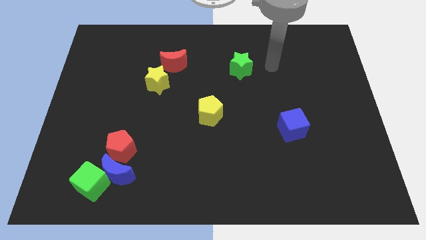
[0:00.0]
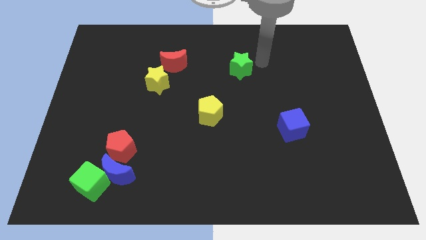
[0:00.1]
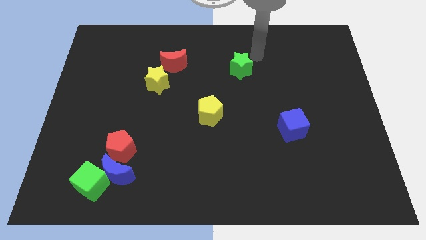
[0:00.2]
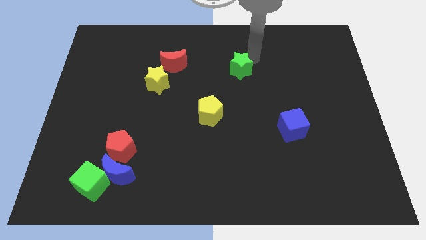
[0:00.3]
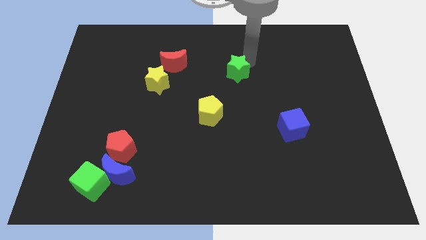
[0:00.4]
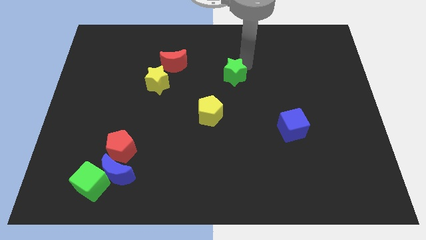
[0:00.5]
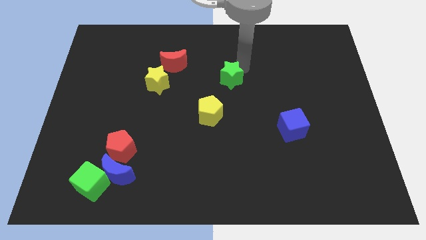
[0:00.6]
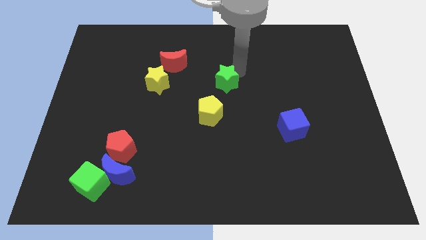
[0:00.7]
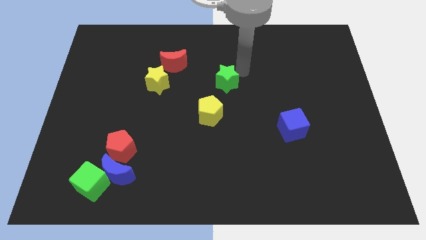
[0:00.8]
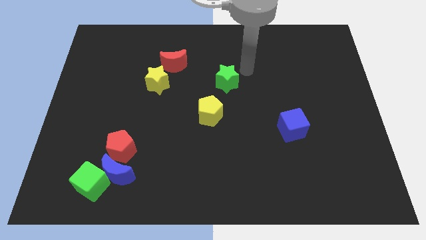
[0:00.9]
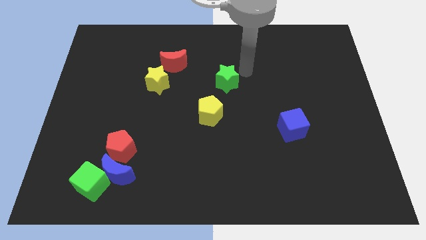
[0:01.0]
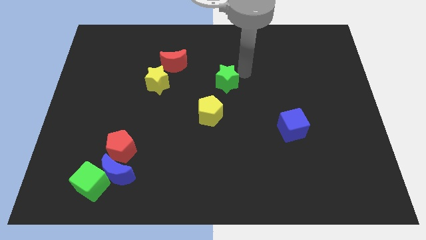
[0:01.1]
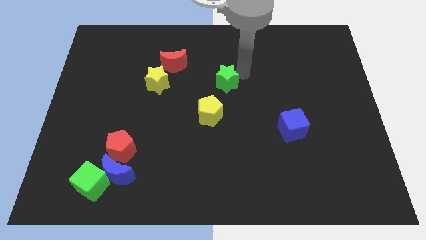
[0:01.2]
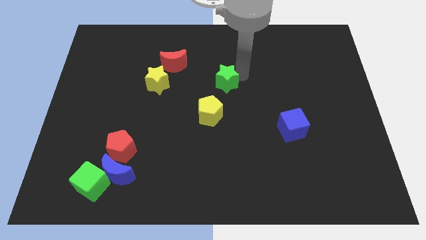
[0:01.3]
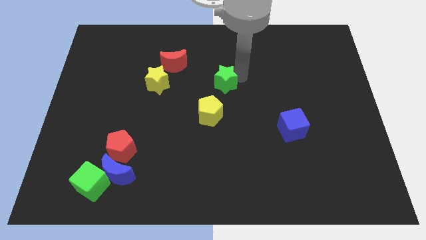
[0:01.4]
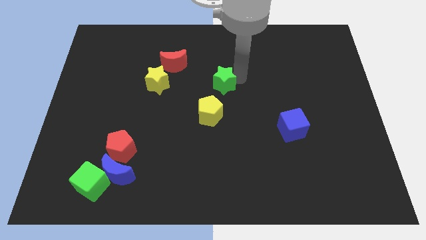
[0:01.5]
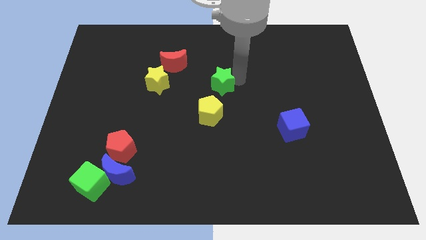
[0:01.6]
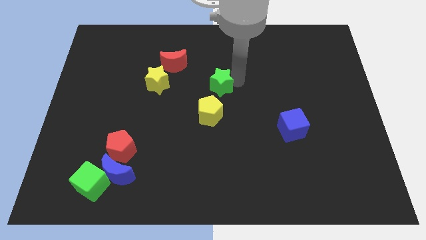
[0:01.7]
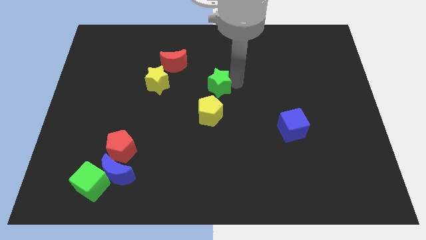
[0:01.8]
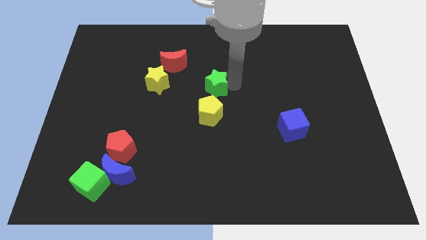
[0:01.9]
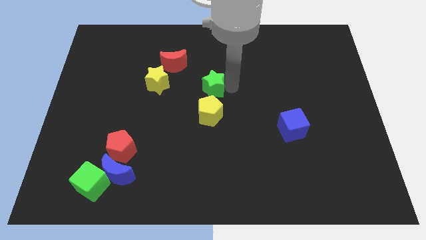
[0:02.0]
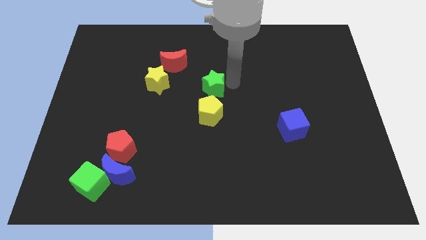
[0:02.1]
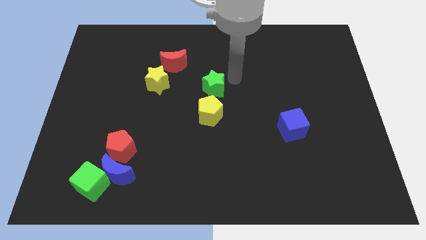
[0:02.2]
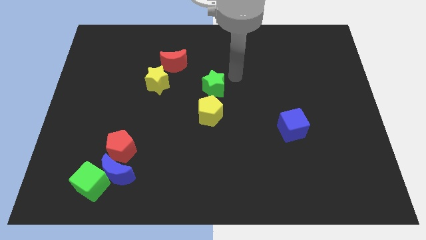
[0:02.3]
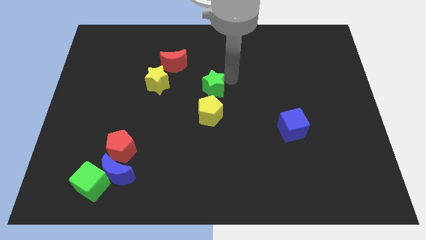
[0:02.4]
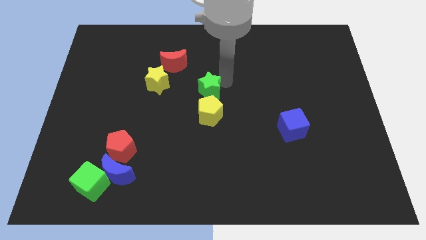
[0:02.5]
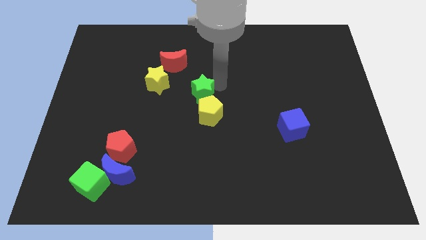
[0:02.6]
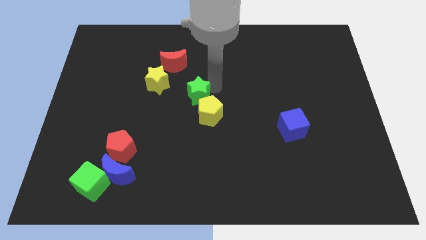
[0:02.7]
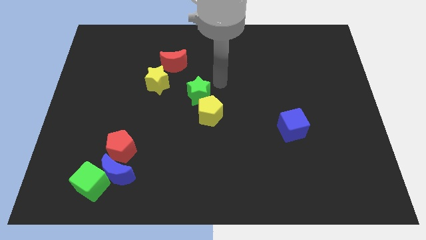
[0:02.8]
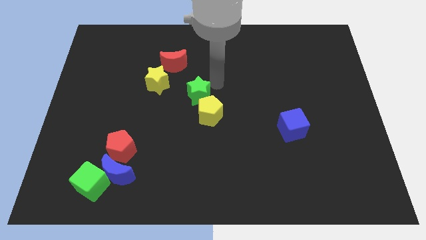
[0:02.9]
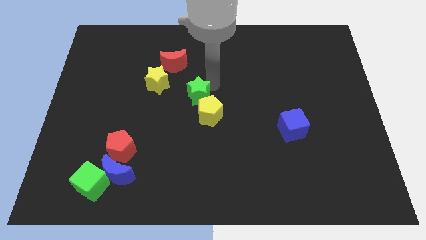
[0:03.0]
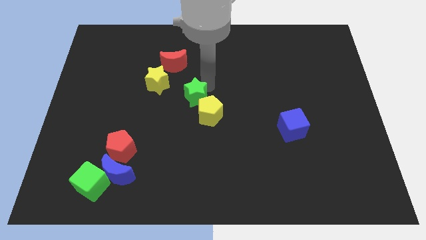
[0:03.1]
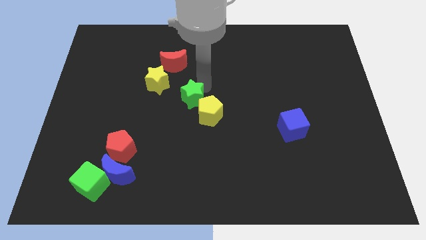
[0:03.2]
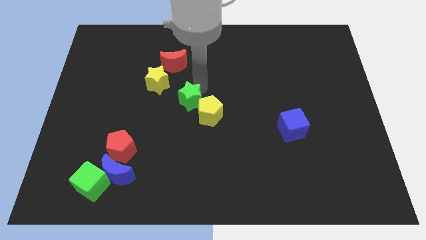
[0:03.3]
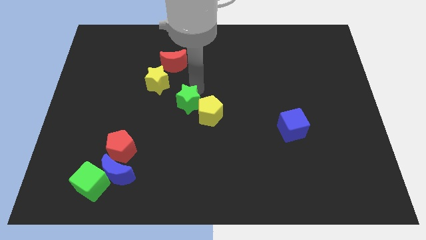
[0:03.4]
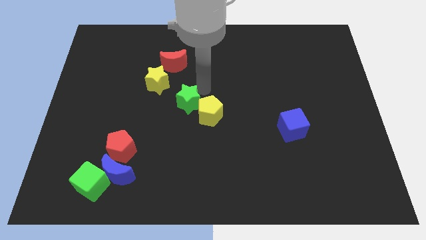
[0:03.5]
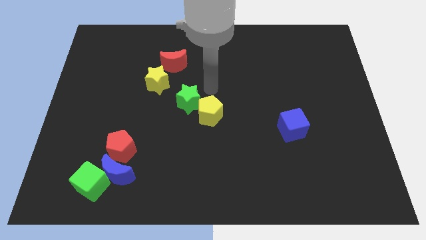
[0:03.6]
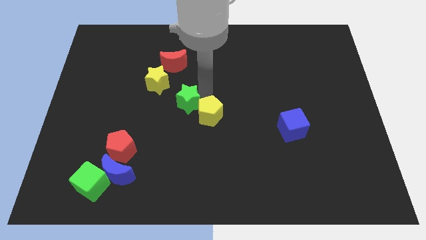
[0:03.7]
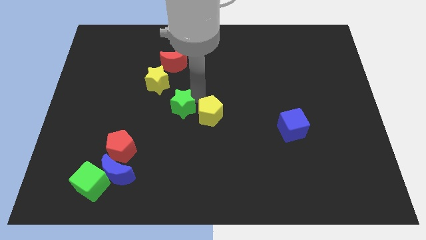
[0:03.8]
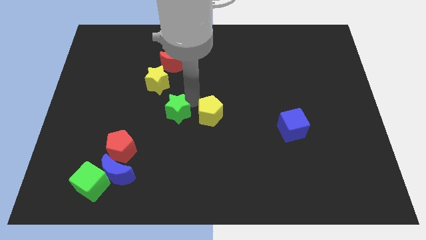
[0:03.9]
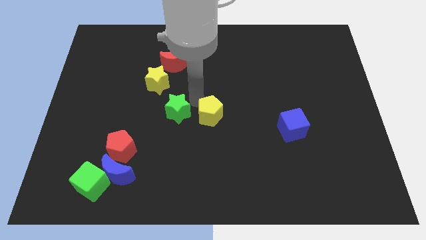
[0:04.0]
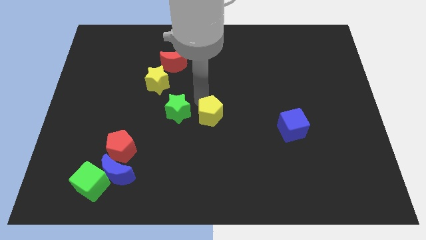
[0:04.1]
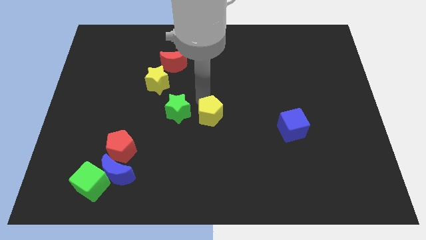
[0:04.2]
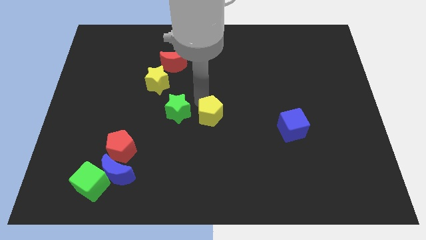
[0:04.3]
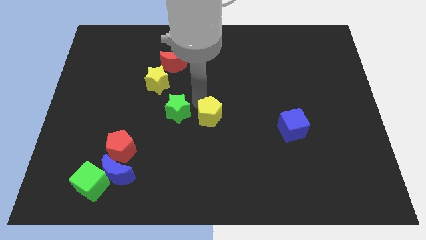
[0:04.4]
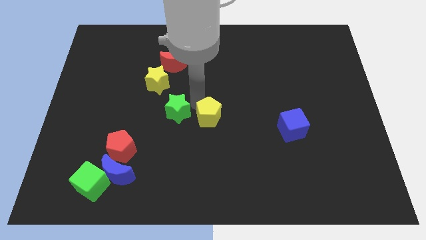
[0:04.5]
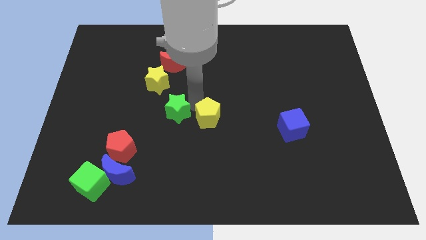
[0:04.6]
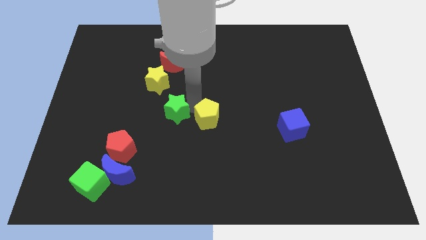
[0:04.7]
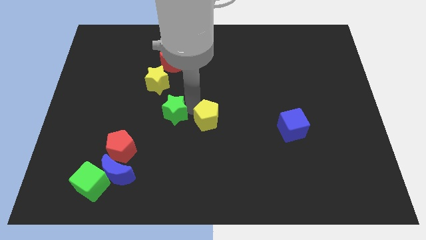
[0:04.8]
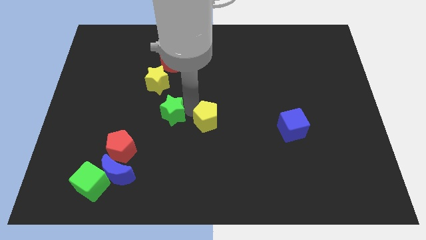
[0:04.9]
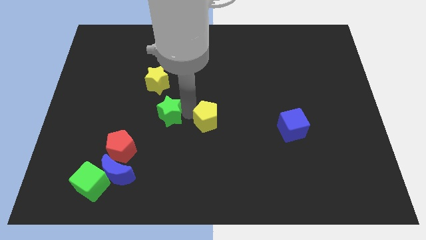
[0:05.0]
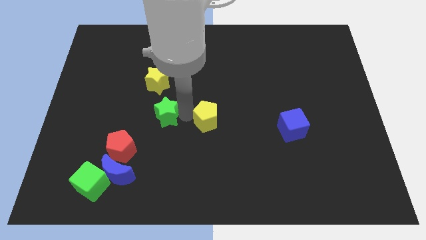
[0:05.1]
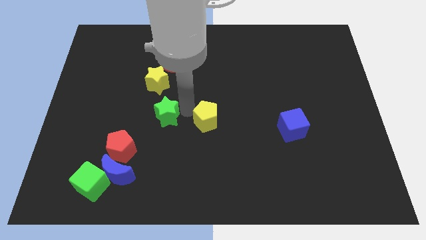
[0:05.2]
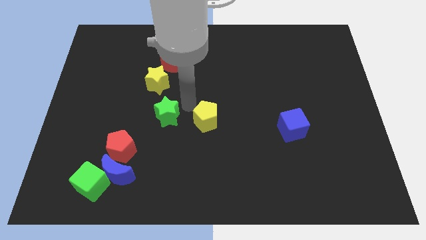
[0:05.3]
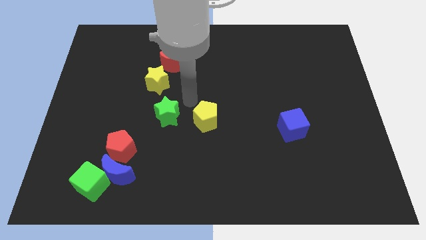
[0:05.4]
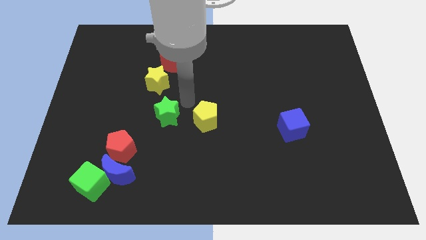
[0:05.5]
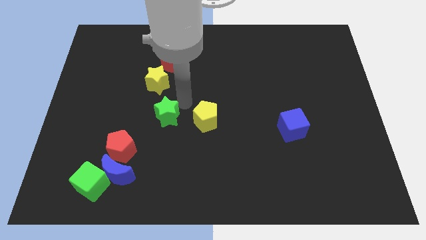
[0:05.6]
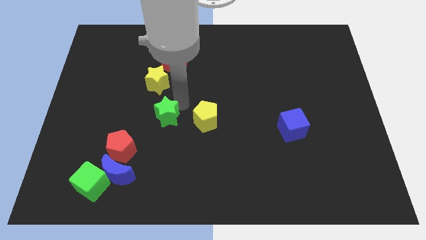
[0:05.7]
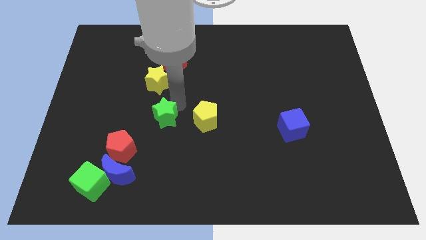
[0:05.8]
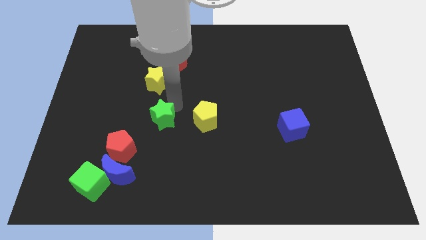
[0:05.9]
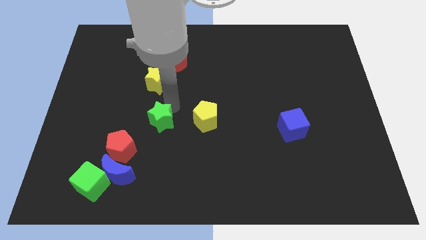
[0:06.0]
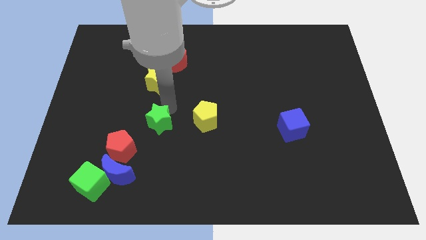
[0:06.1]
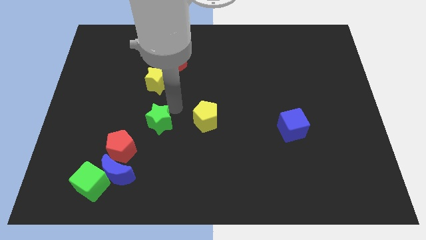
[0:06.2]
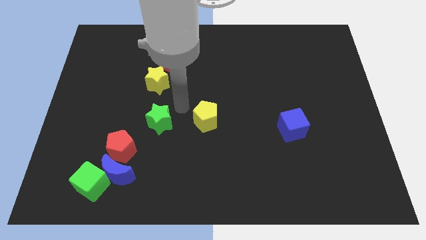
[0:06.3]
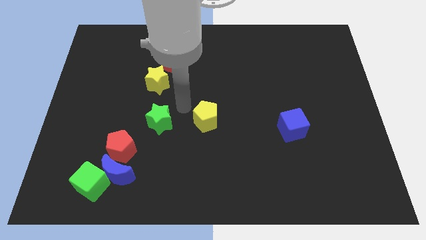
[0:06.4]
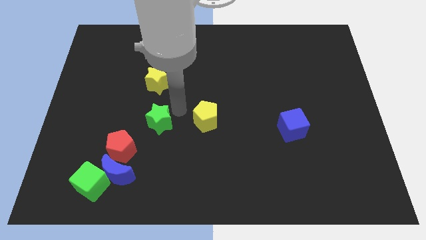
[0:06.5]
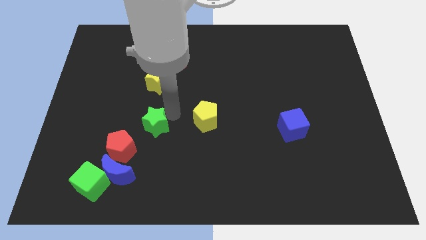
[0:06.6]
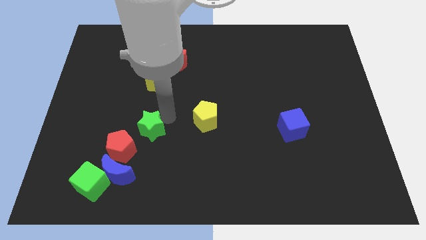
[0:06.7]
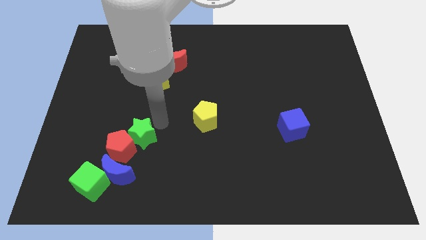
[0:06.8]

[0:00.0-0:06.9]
slide the green star to the red pentagon

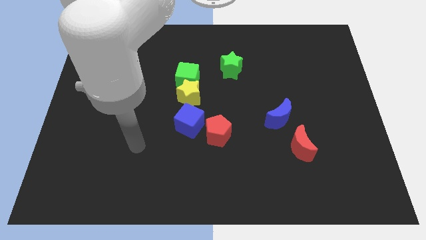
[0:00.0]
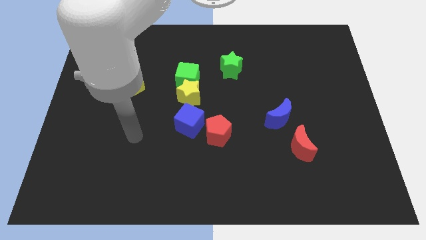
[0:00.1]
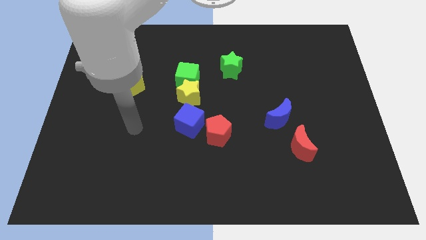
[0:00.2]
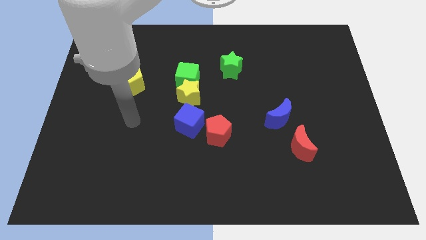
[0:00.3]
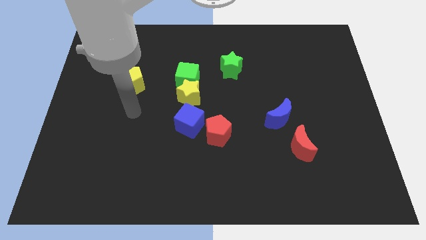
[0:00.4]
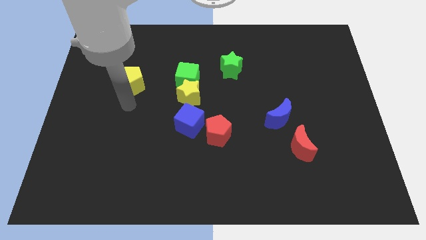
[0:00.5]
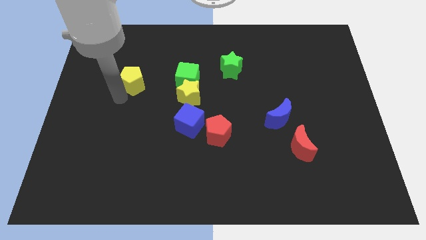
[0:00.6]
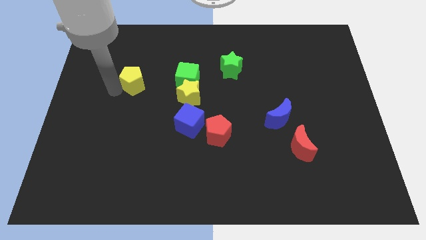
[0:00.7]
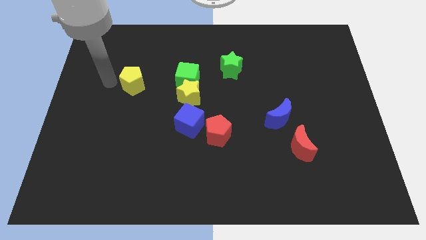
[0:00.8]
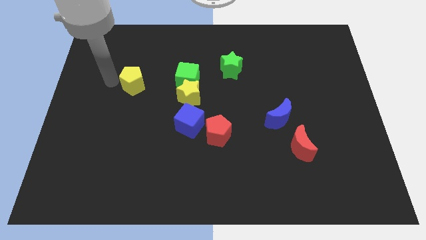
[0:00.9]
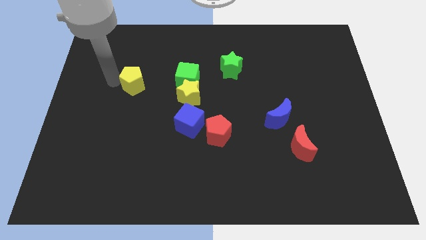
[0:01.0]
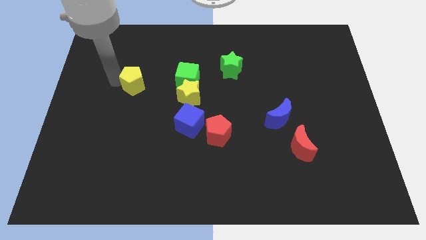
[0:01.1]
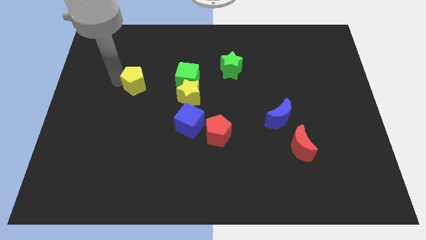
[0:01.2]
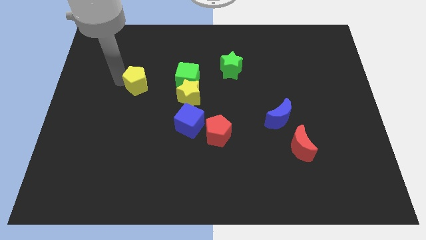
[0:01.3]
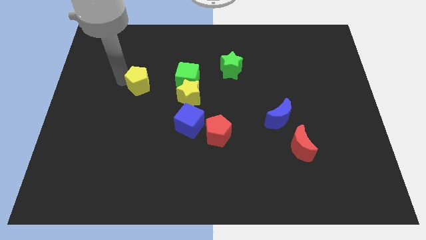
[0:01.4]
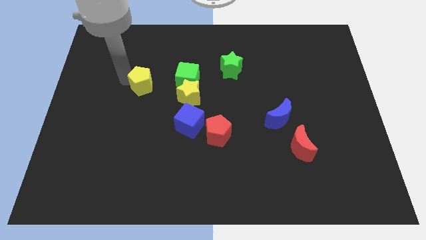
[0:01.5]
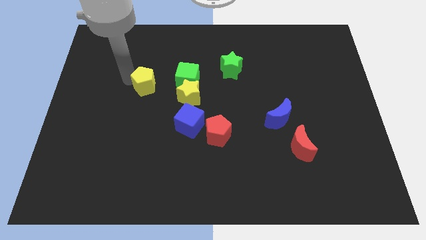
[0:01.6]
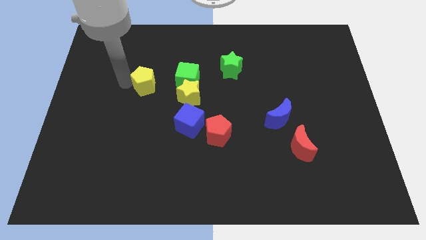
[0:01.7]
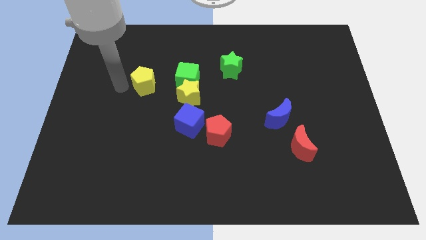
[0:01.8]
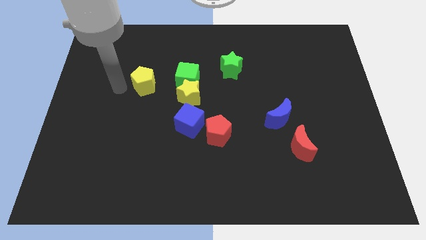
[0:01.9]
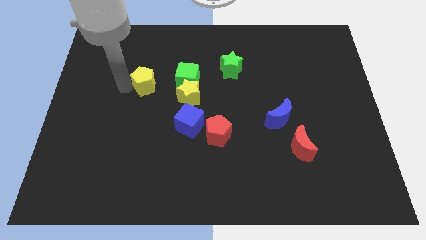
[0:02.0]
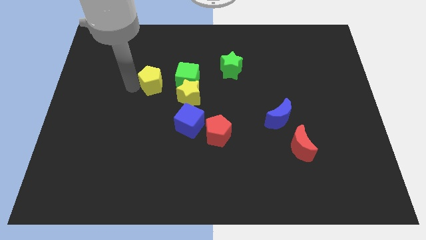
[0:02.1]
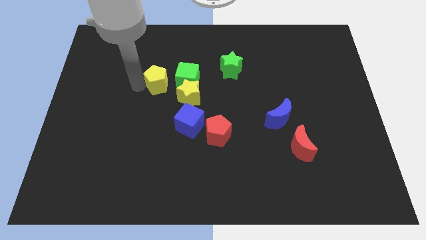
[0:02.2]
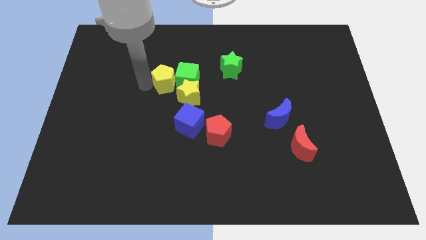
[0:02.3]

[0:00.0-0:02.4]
slide the yellow pentagon next to the green cube
